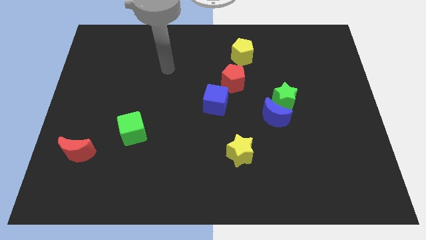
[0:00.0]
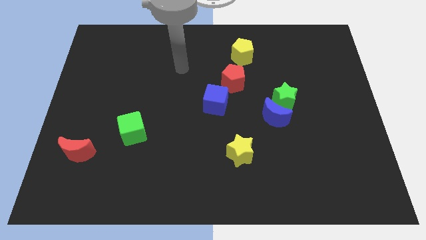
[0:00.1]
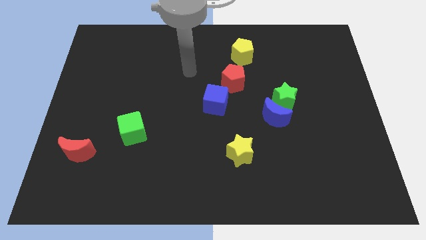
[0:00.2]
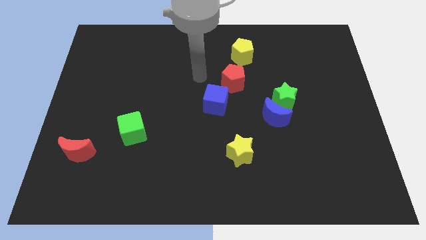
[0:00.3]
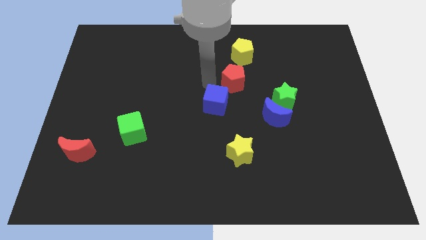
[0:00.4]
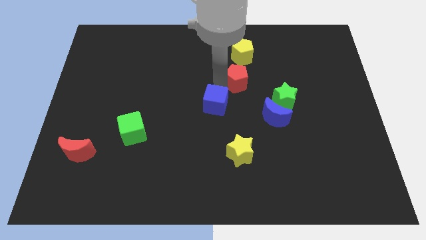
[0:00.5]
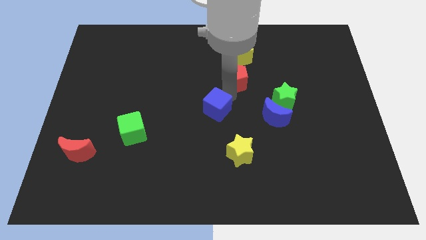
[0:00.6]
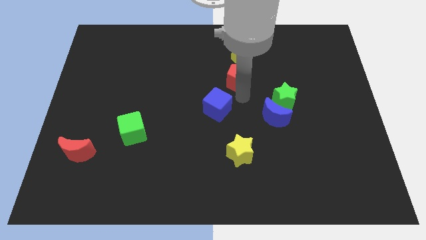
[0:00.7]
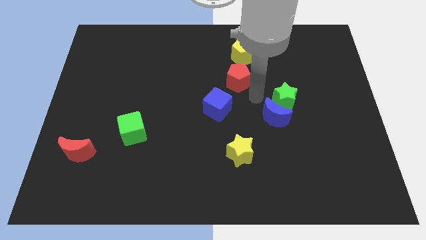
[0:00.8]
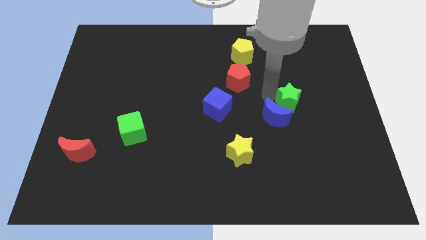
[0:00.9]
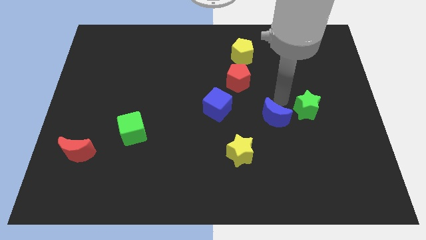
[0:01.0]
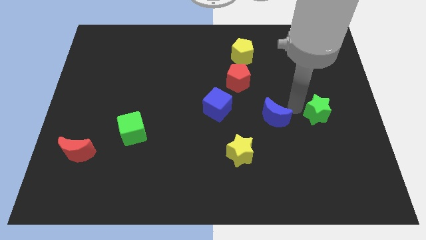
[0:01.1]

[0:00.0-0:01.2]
separate the blue moon from the green star

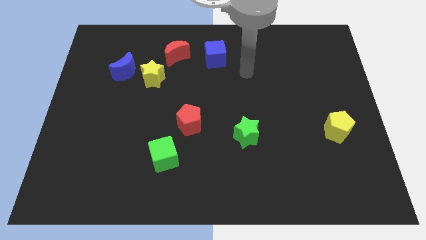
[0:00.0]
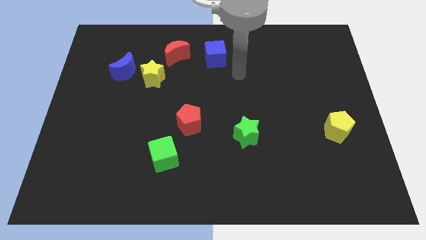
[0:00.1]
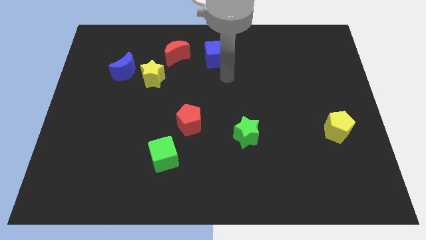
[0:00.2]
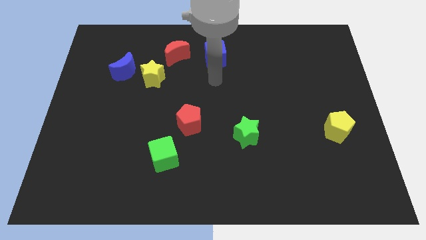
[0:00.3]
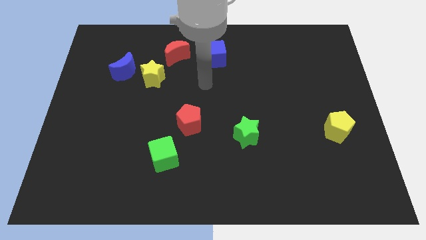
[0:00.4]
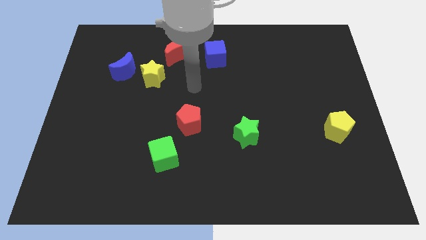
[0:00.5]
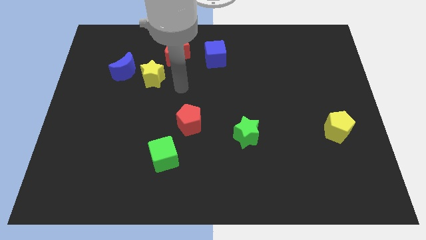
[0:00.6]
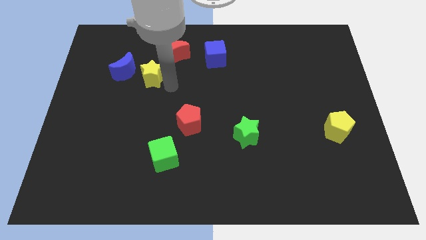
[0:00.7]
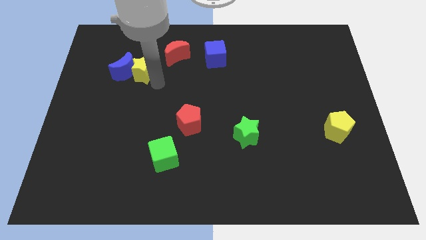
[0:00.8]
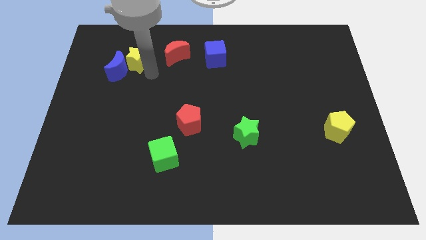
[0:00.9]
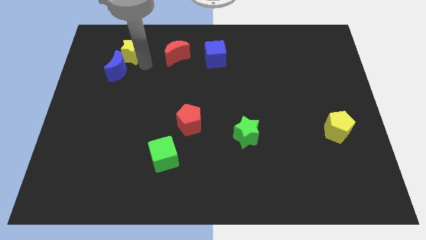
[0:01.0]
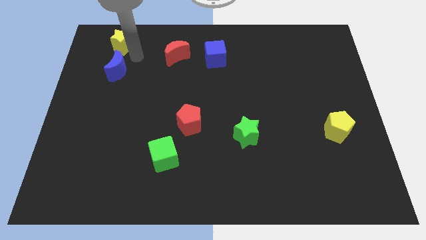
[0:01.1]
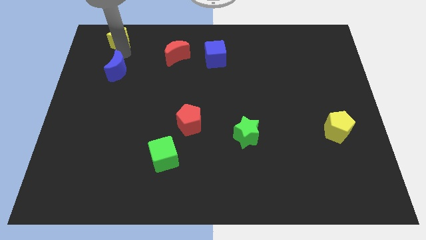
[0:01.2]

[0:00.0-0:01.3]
separate the blue moon from the yellow star

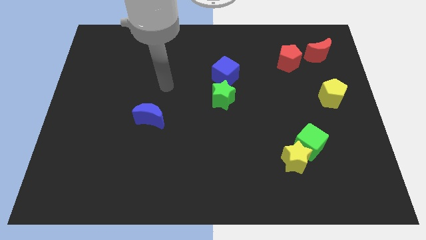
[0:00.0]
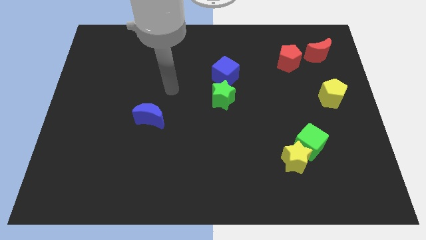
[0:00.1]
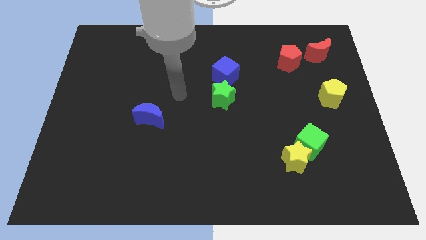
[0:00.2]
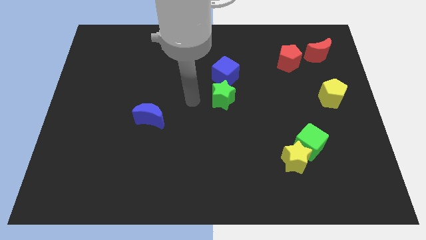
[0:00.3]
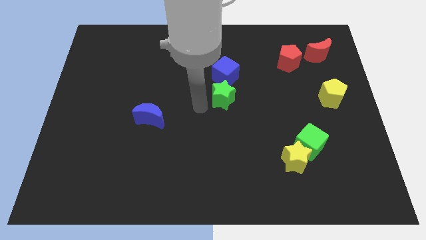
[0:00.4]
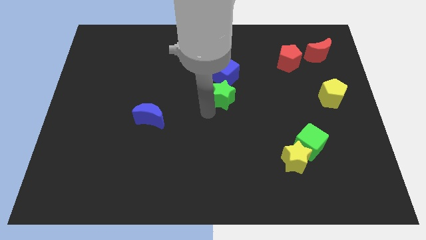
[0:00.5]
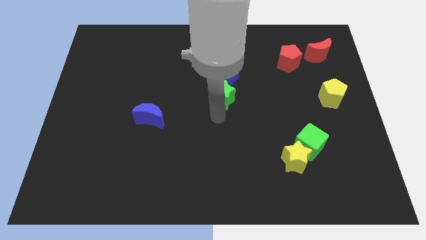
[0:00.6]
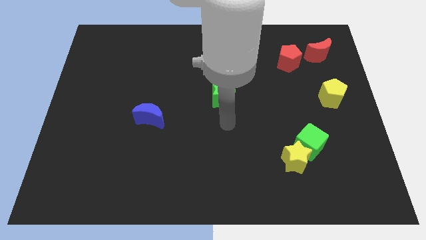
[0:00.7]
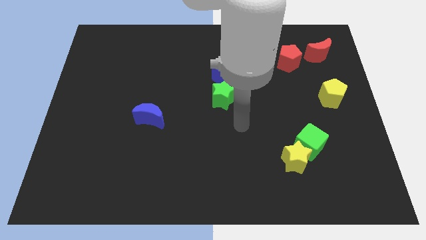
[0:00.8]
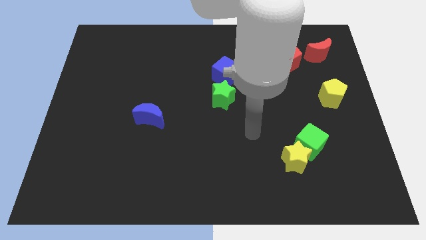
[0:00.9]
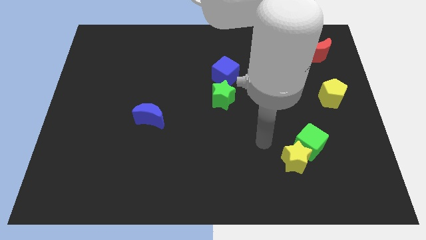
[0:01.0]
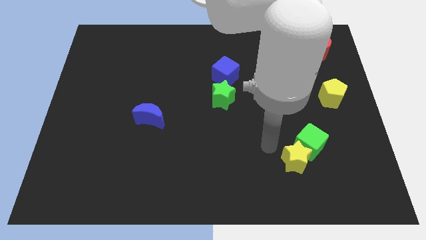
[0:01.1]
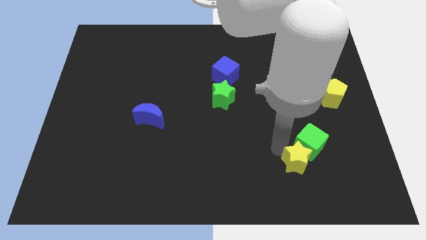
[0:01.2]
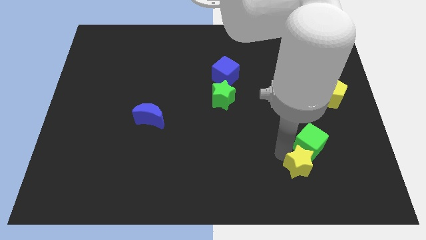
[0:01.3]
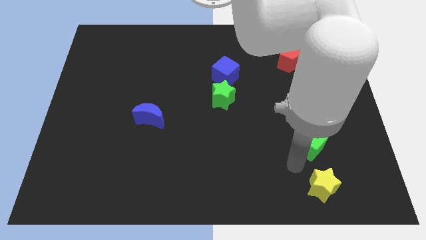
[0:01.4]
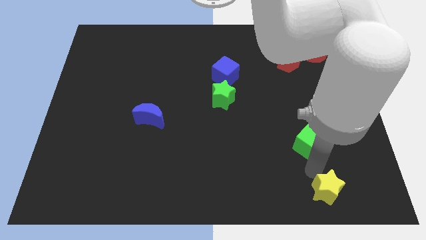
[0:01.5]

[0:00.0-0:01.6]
move the green cube away from the yellow star

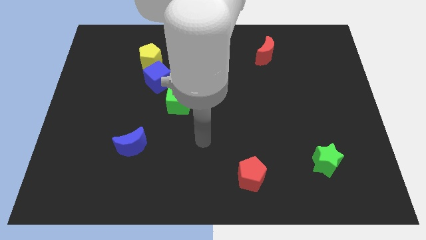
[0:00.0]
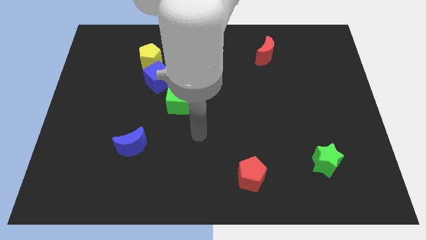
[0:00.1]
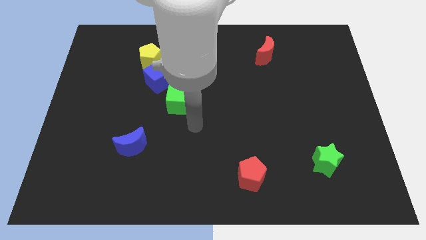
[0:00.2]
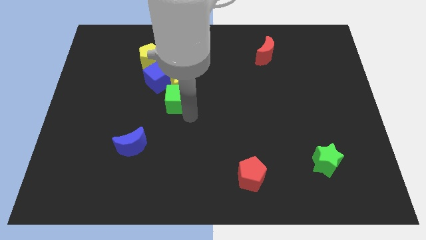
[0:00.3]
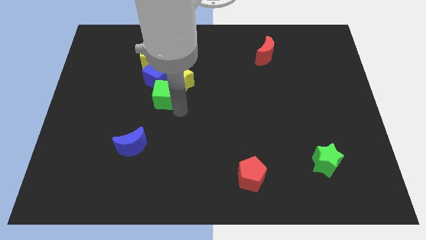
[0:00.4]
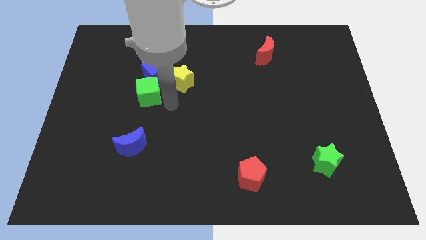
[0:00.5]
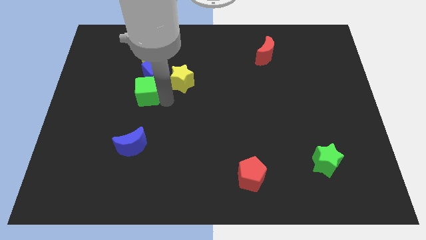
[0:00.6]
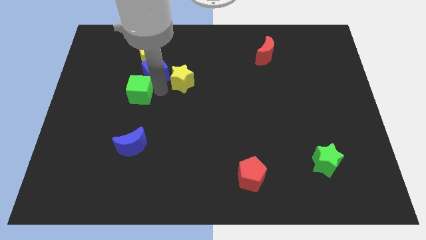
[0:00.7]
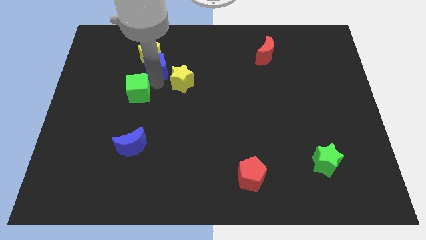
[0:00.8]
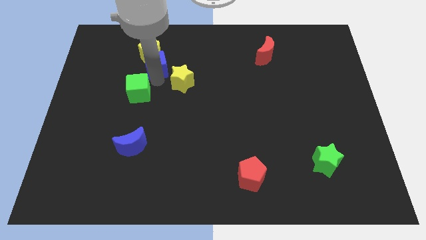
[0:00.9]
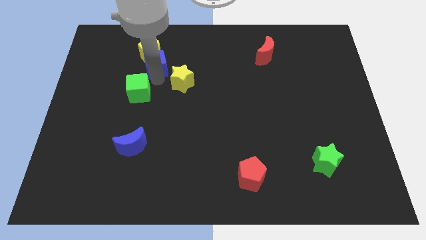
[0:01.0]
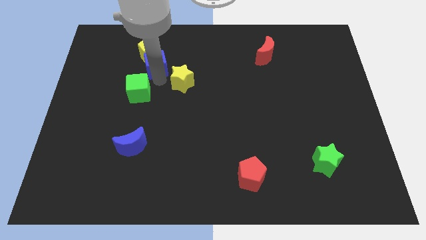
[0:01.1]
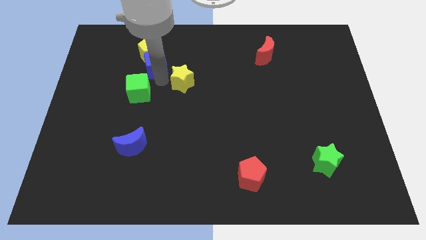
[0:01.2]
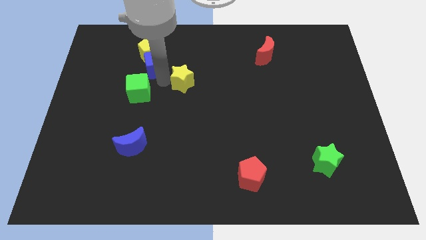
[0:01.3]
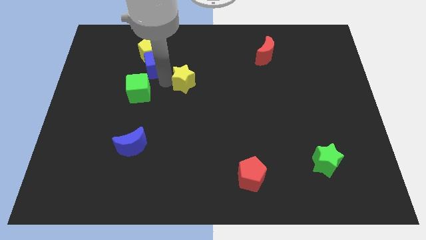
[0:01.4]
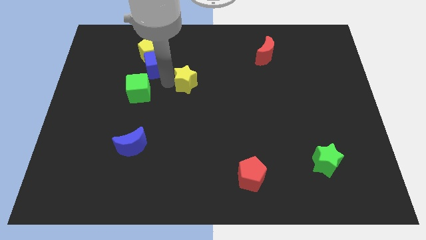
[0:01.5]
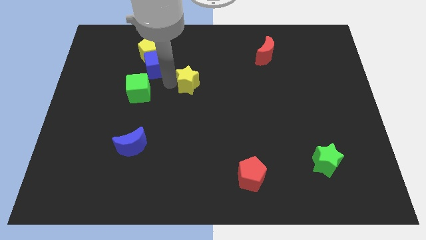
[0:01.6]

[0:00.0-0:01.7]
move the yellow star away from the green cube and blue cube

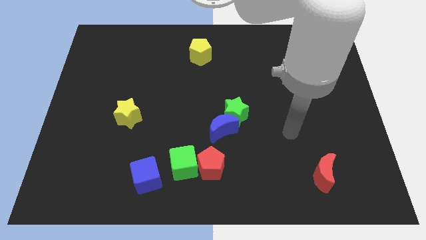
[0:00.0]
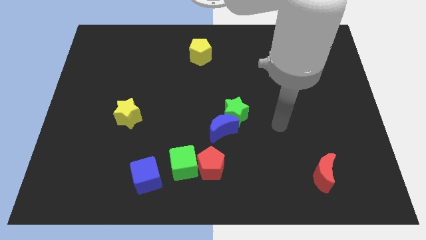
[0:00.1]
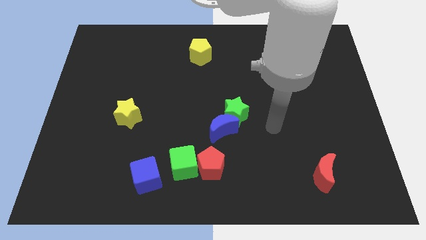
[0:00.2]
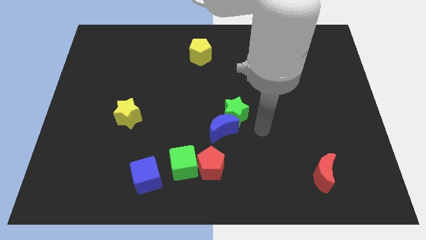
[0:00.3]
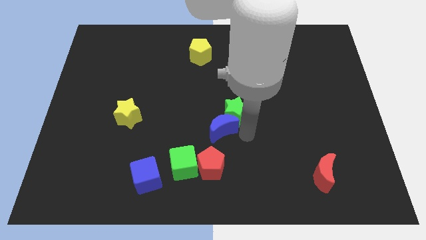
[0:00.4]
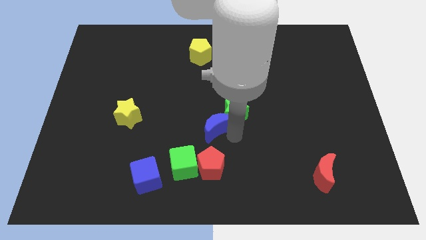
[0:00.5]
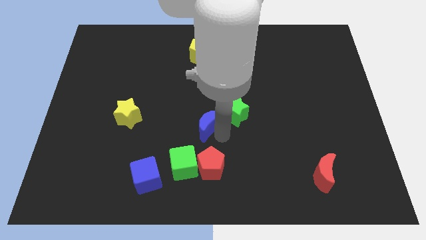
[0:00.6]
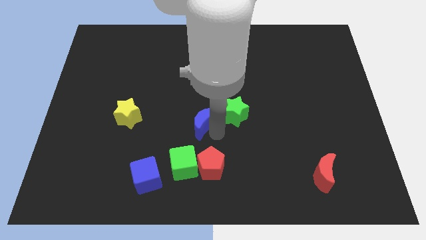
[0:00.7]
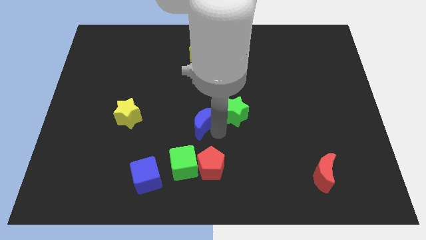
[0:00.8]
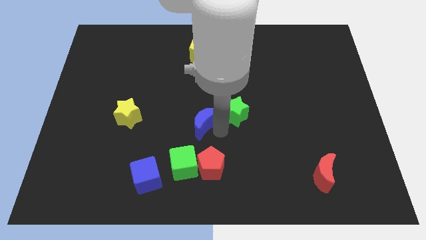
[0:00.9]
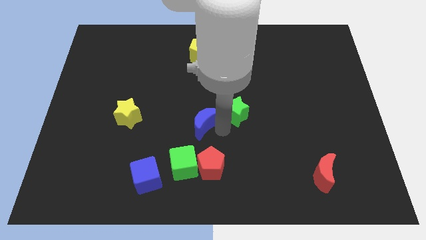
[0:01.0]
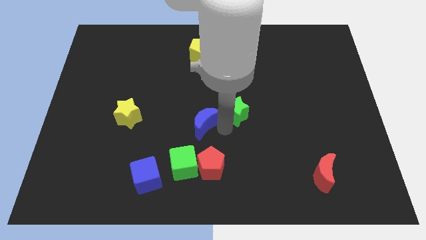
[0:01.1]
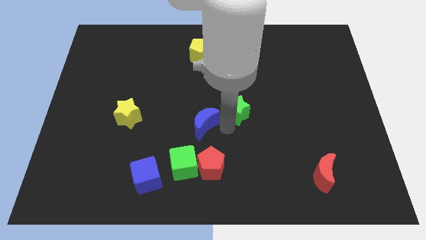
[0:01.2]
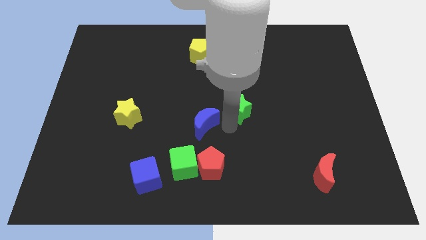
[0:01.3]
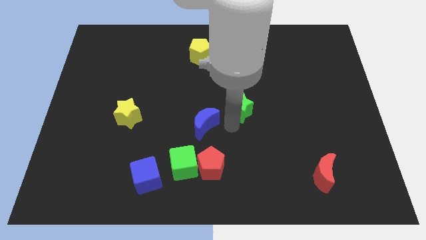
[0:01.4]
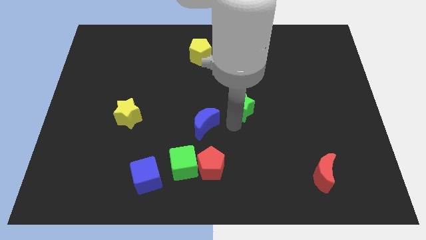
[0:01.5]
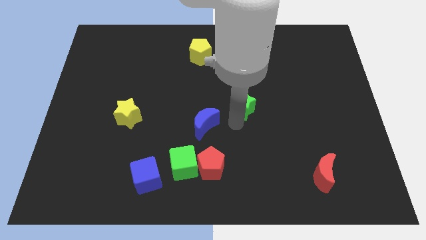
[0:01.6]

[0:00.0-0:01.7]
separate the green star from the blue moon

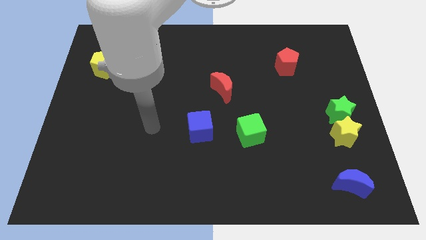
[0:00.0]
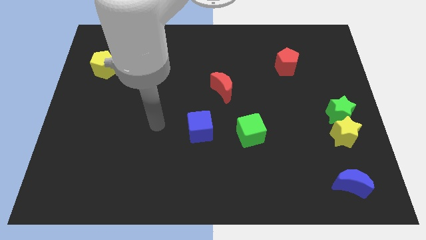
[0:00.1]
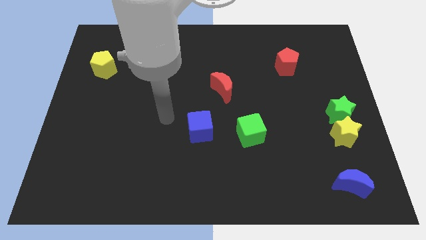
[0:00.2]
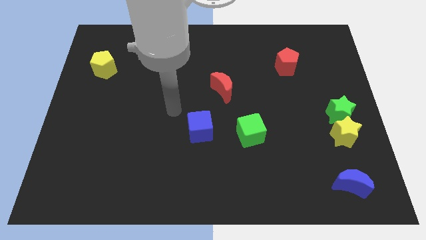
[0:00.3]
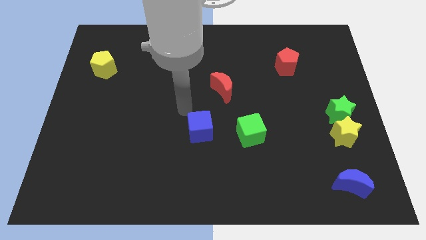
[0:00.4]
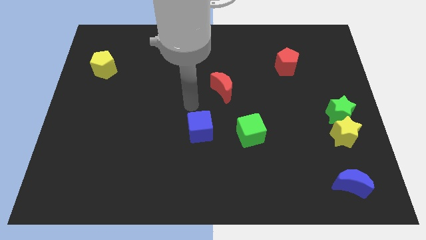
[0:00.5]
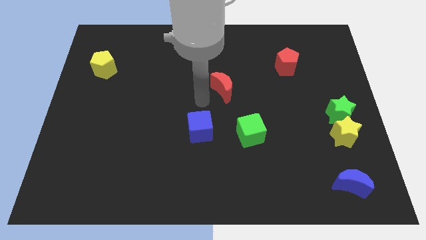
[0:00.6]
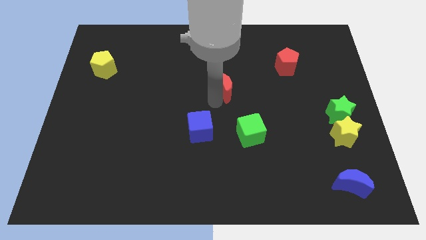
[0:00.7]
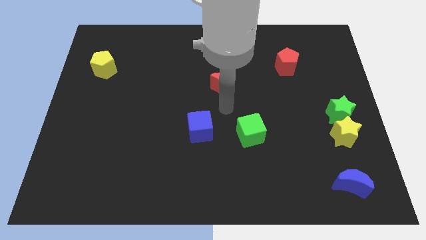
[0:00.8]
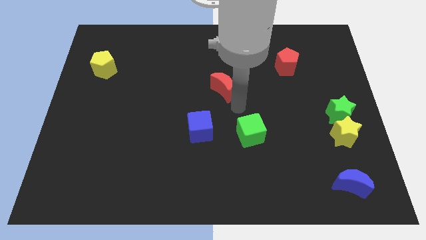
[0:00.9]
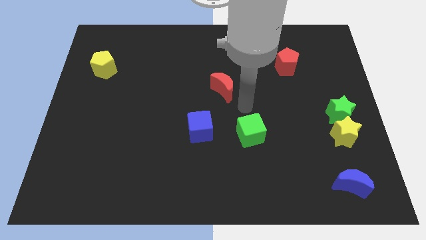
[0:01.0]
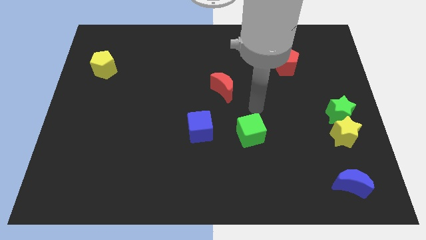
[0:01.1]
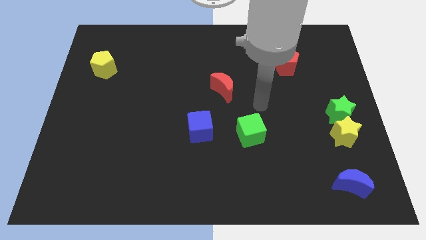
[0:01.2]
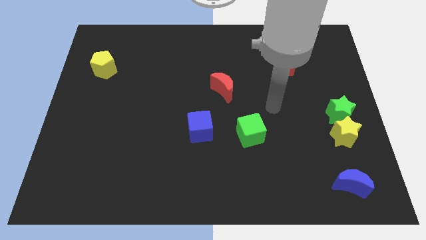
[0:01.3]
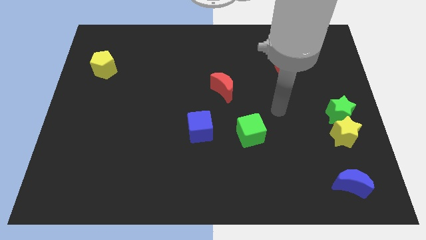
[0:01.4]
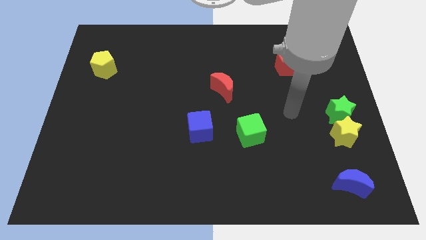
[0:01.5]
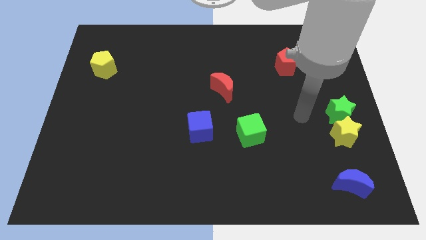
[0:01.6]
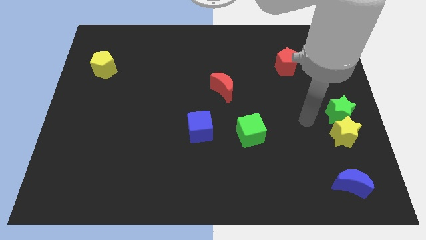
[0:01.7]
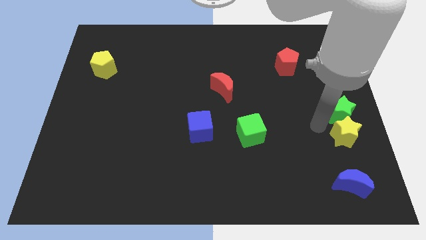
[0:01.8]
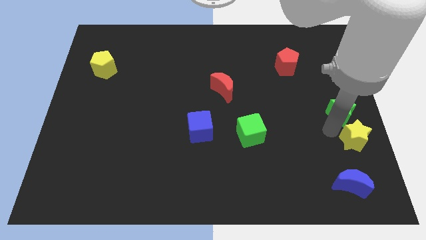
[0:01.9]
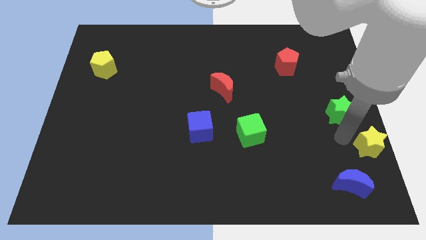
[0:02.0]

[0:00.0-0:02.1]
separate the green star from the yellow star
